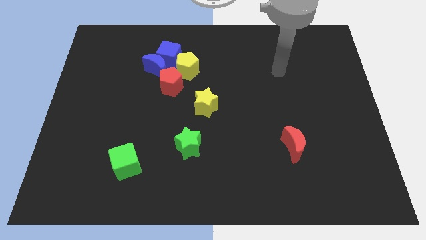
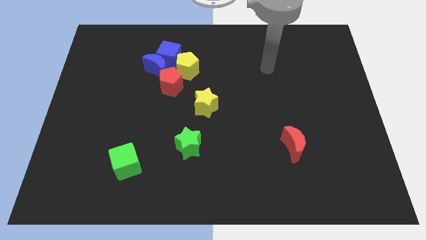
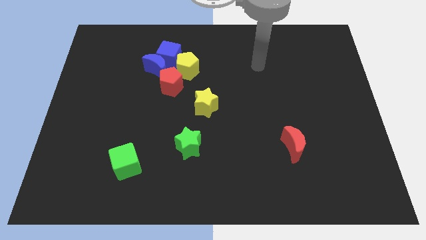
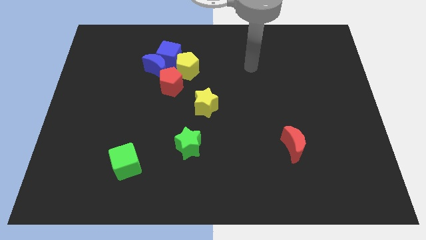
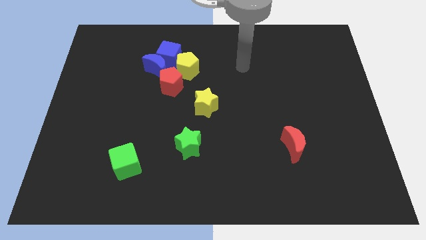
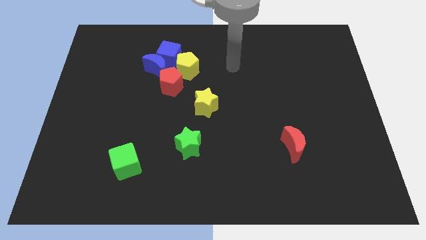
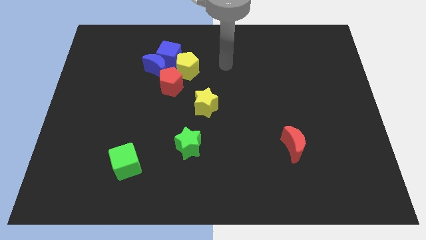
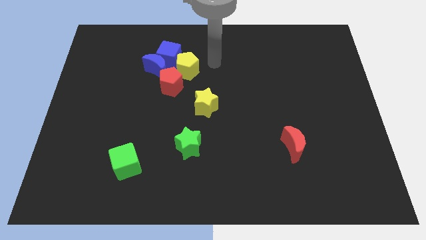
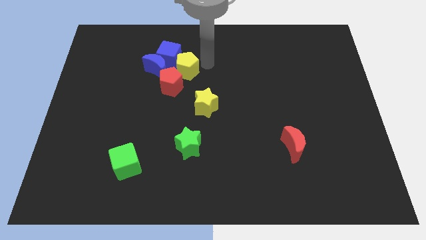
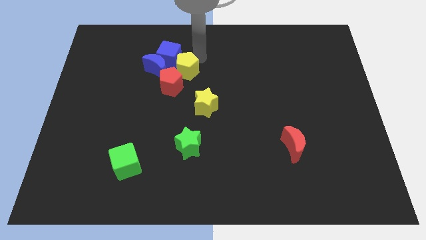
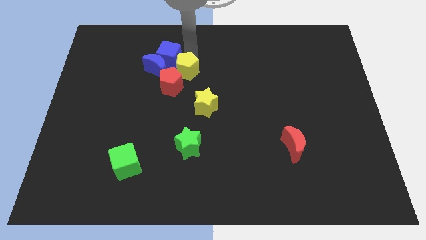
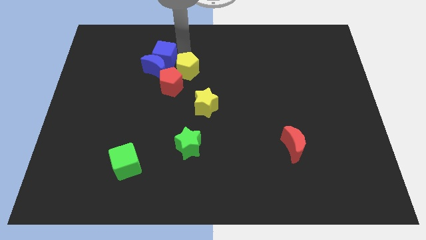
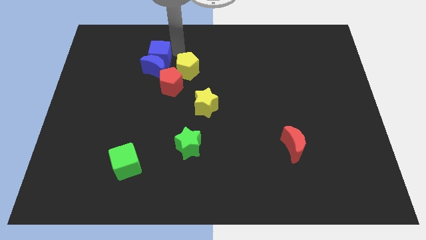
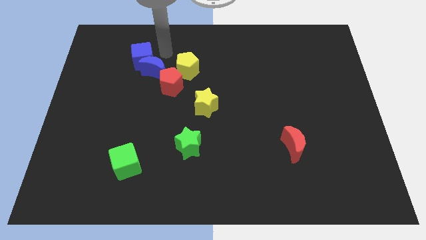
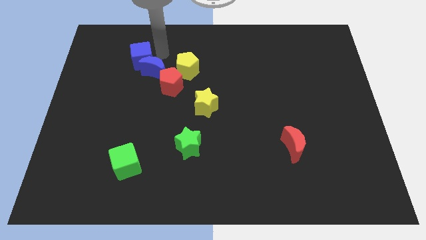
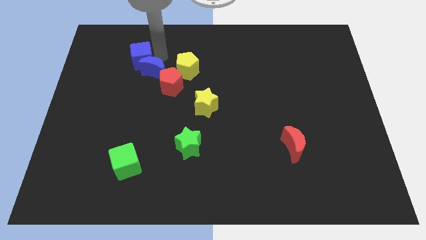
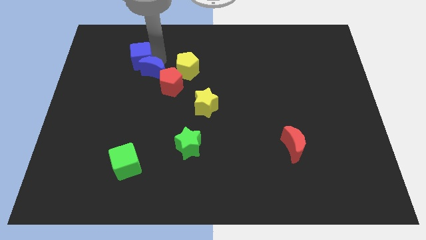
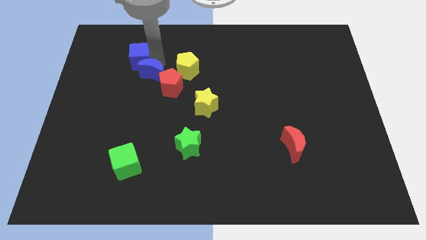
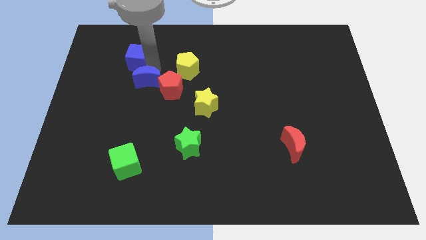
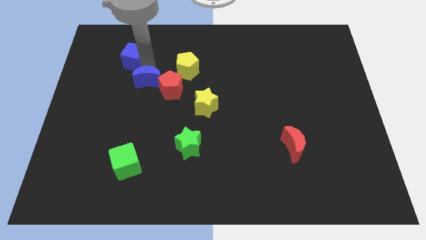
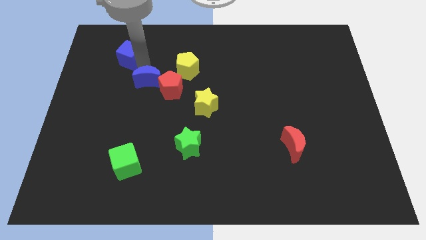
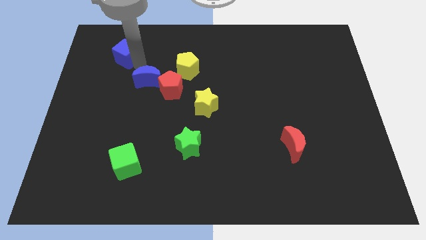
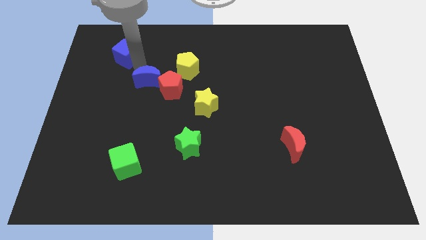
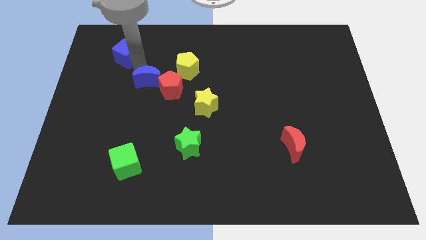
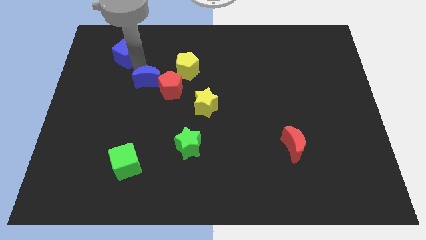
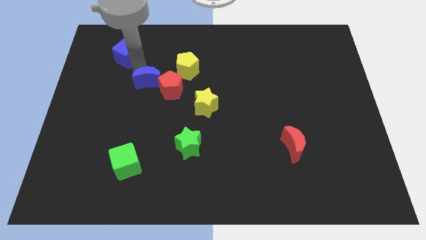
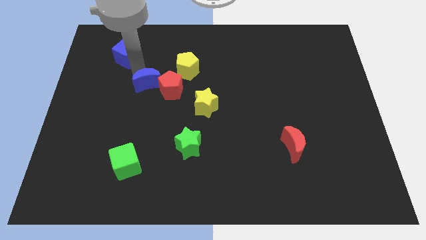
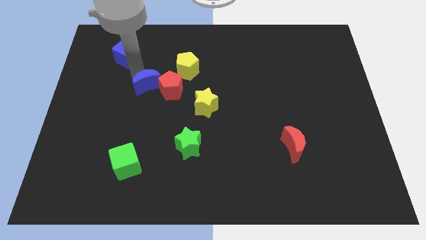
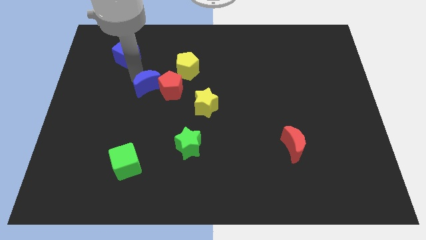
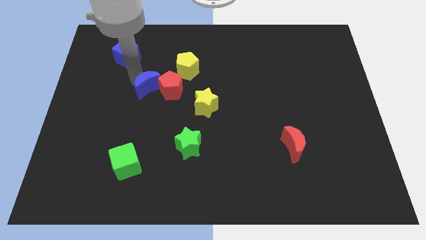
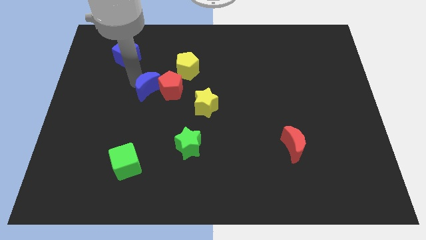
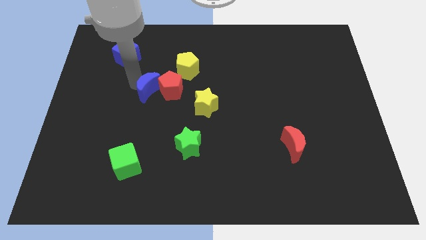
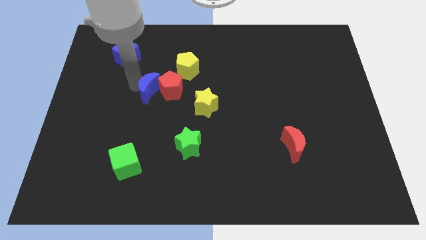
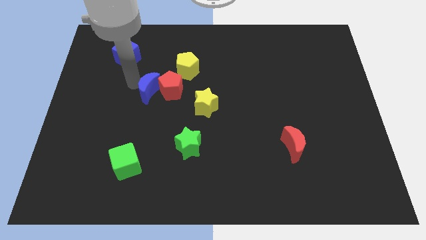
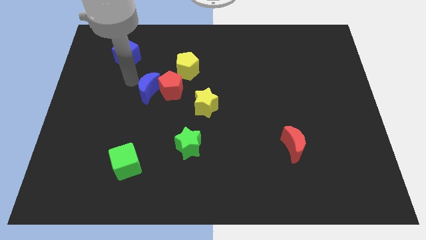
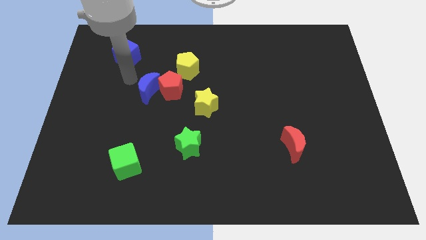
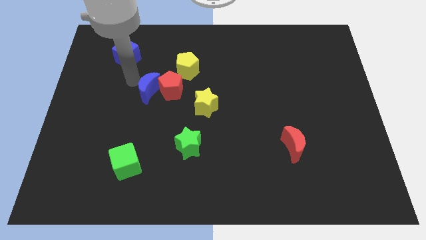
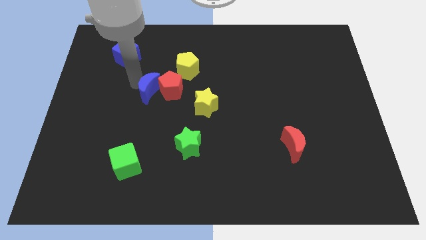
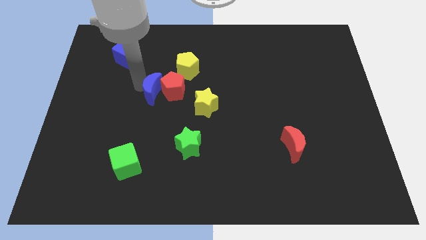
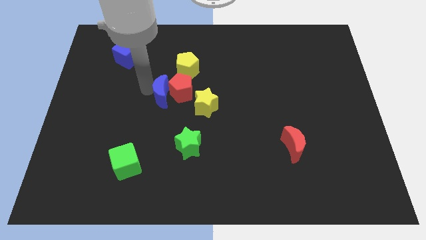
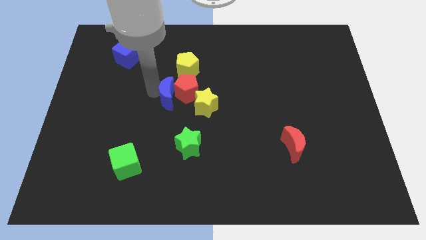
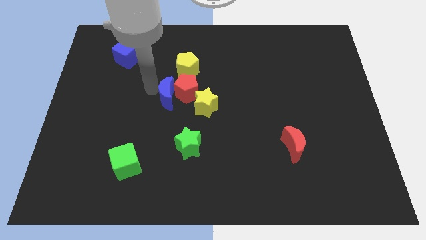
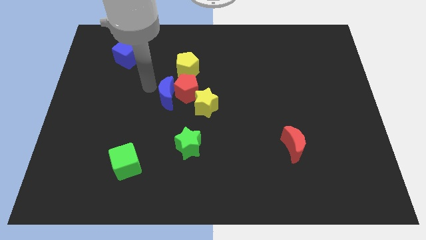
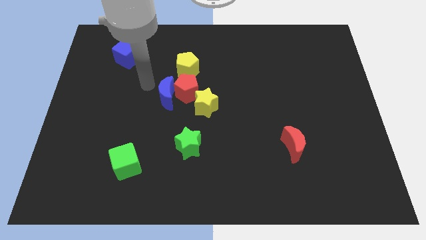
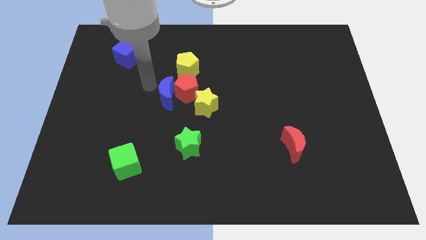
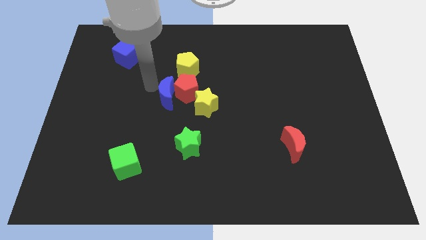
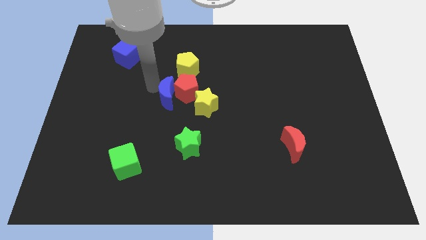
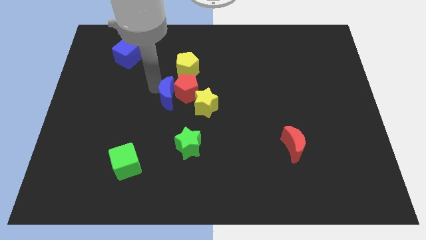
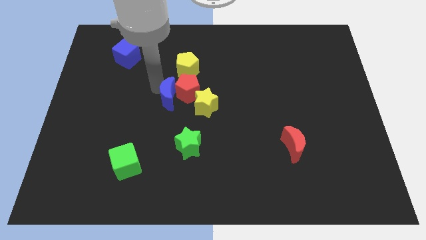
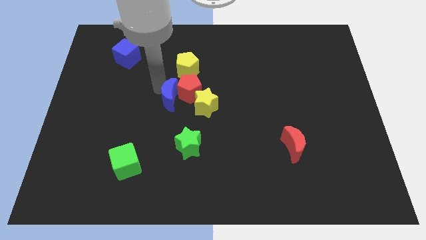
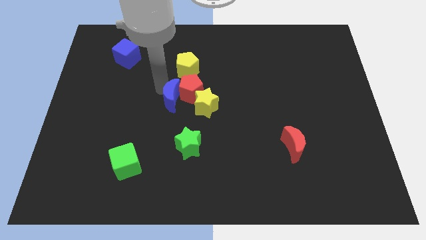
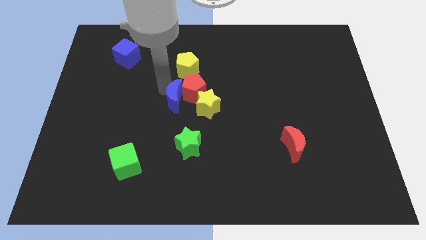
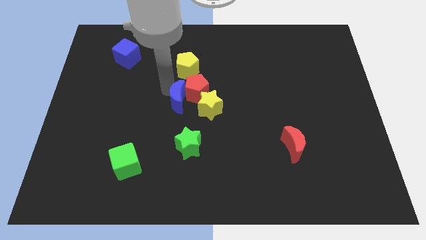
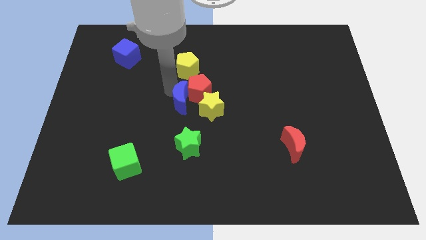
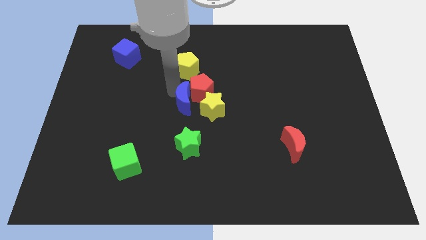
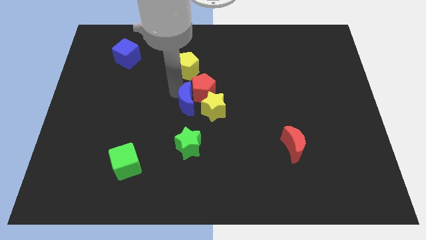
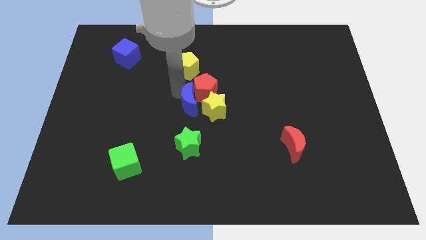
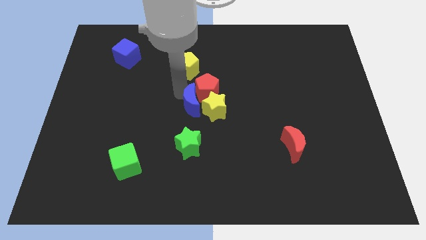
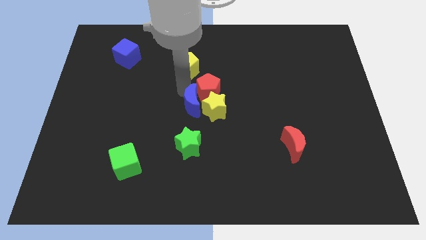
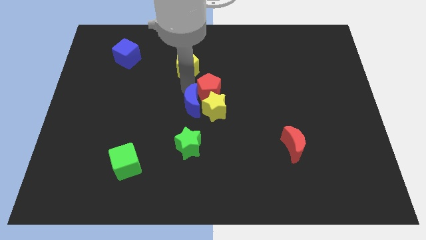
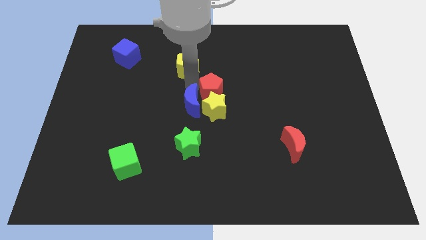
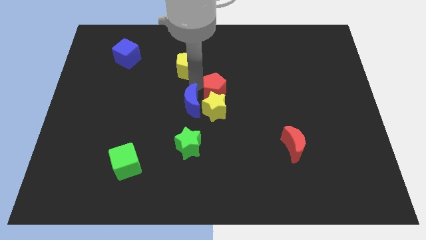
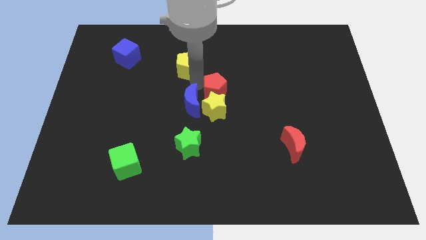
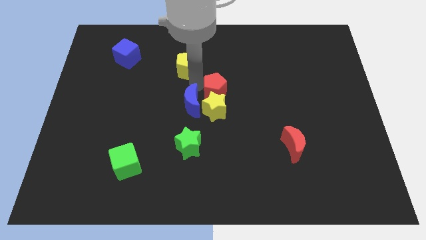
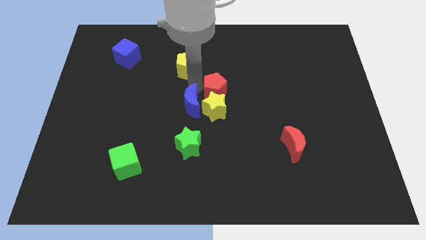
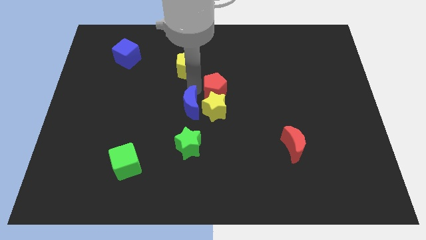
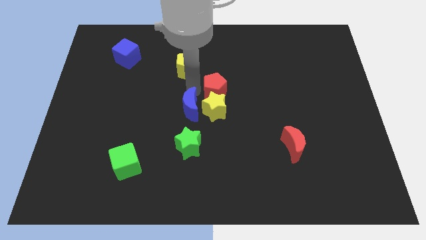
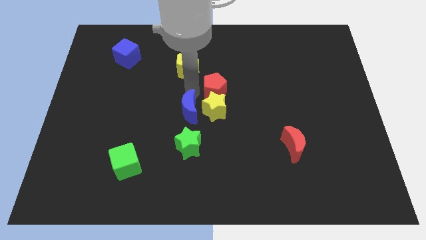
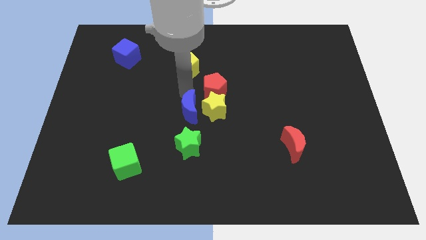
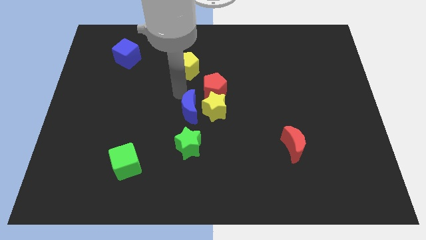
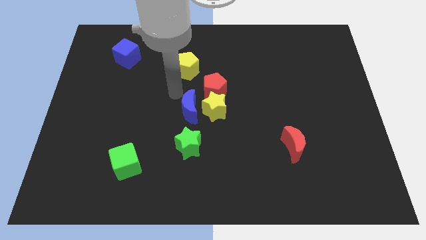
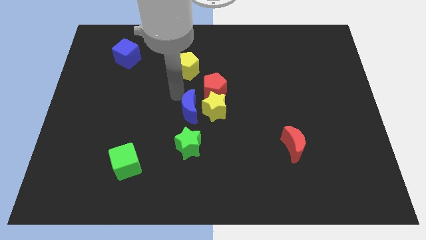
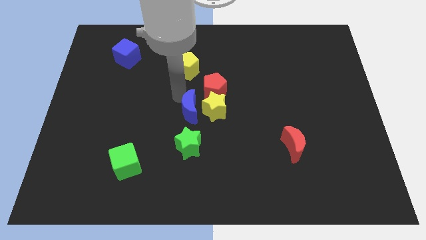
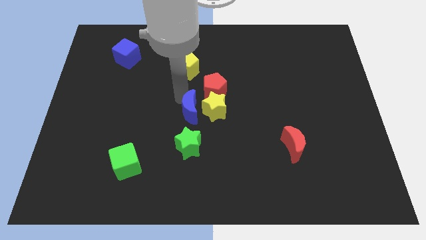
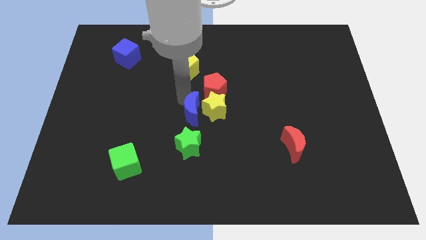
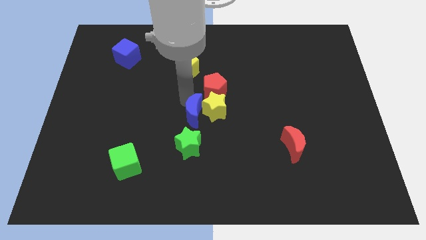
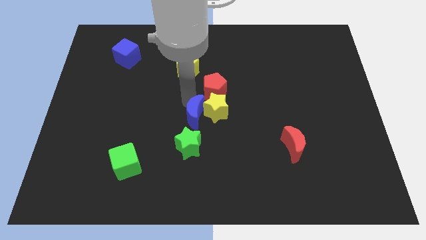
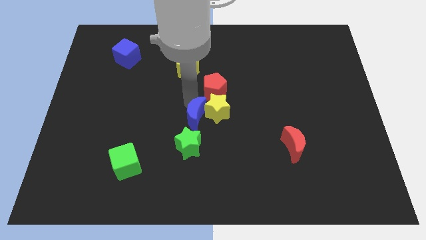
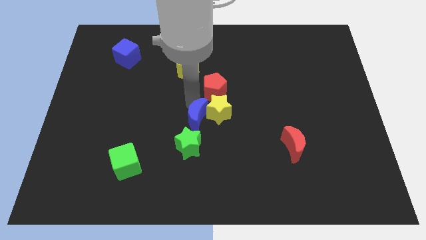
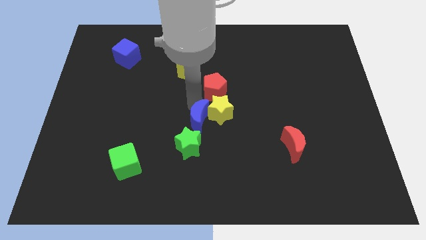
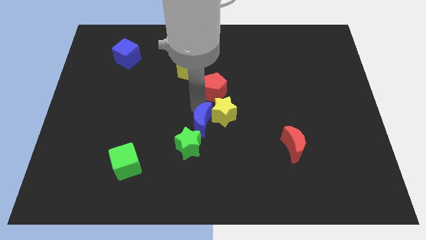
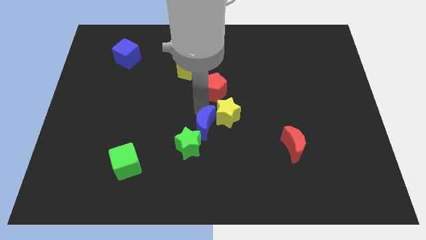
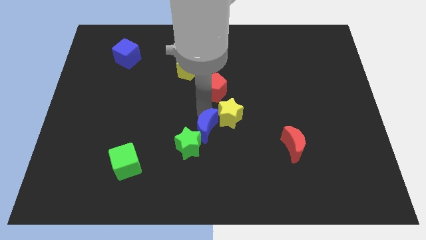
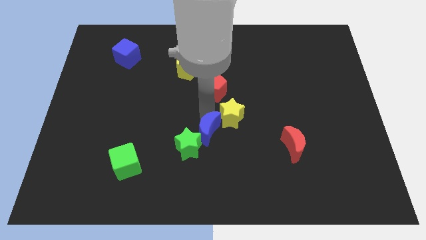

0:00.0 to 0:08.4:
slide the blue moon to the right of the green star
